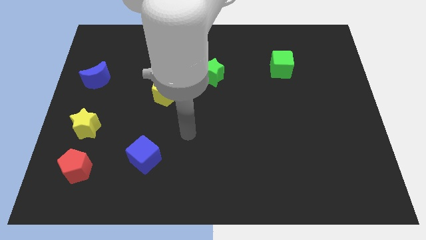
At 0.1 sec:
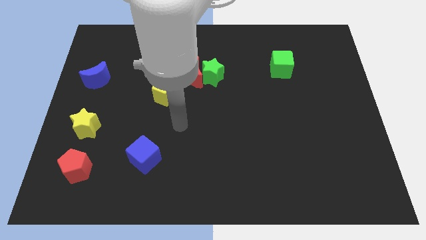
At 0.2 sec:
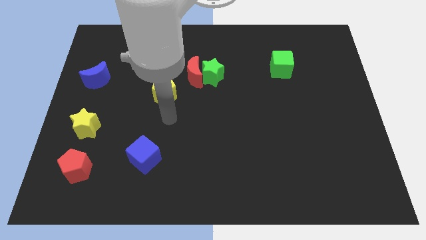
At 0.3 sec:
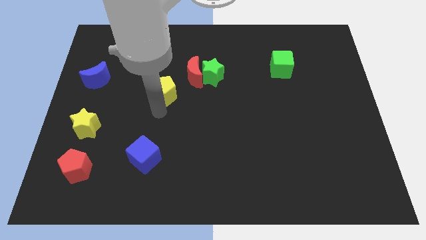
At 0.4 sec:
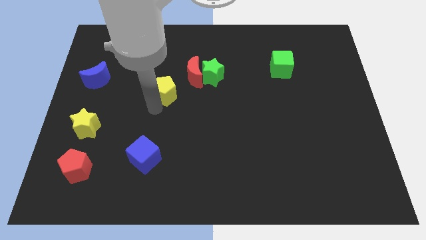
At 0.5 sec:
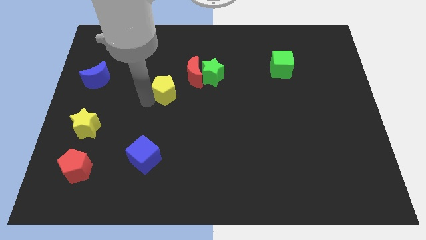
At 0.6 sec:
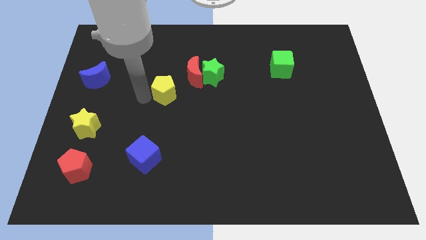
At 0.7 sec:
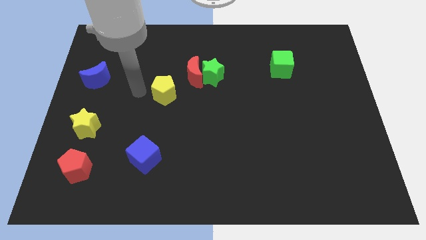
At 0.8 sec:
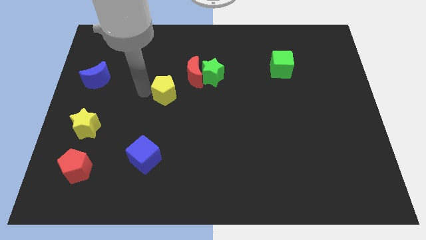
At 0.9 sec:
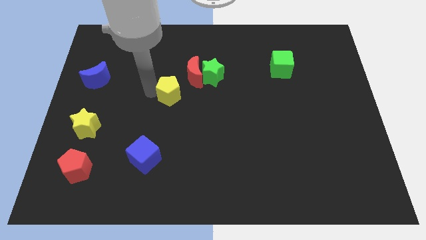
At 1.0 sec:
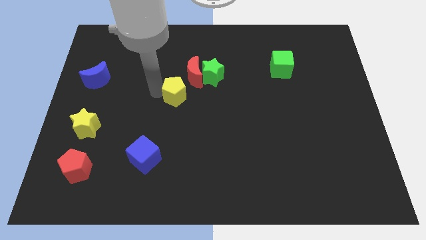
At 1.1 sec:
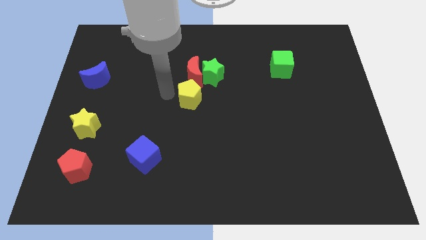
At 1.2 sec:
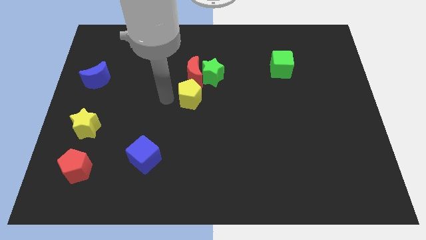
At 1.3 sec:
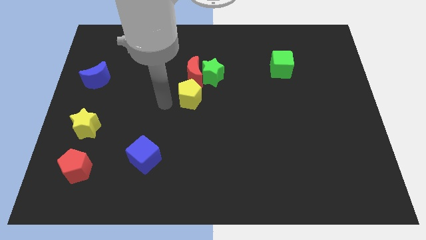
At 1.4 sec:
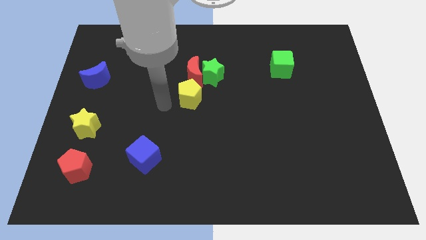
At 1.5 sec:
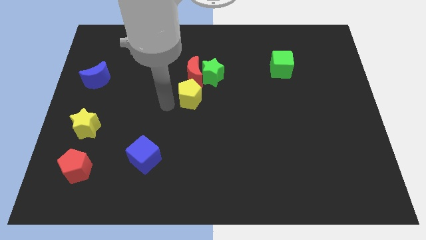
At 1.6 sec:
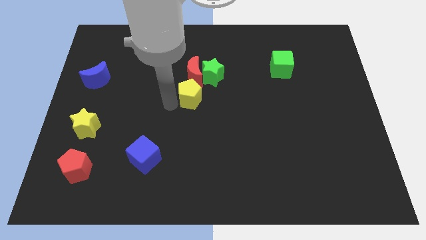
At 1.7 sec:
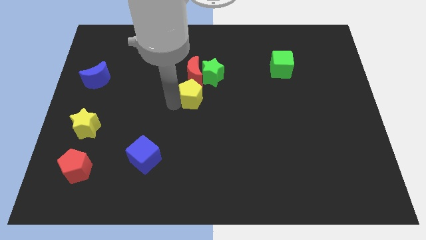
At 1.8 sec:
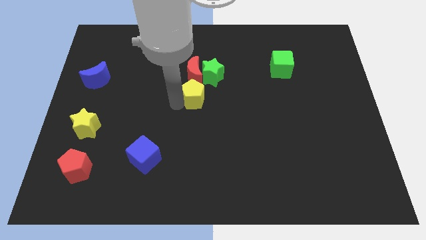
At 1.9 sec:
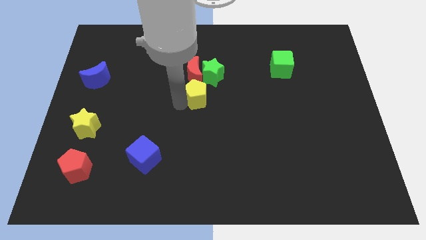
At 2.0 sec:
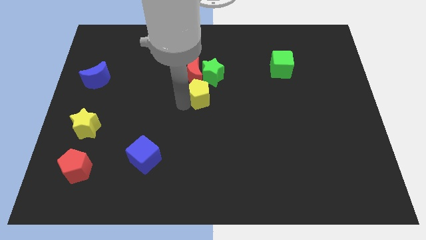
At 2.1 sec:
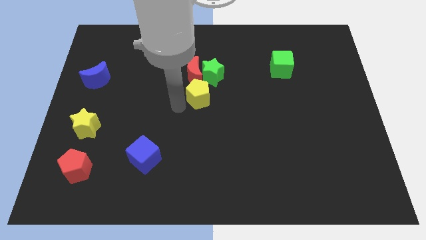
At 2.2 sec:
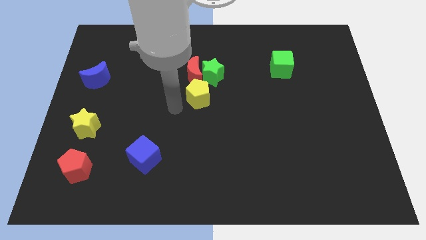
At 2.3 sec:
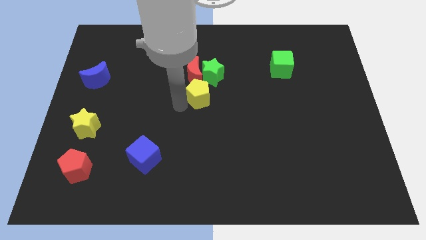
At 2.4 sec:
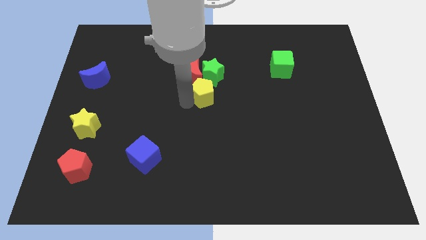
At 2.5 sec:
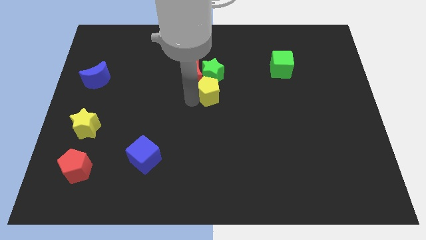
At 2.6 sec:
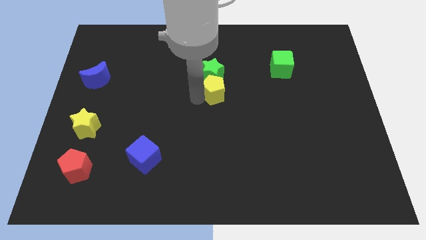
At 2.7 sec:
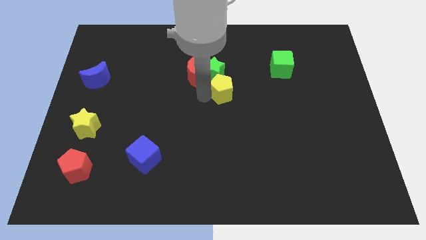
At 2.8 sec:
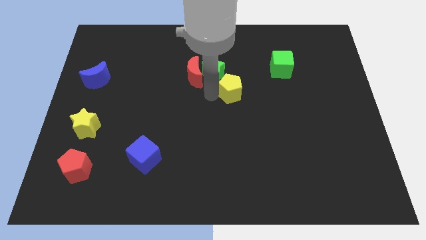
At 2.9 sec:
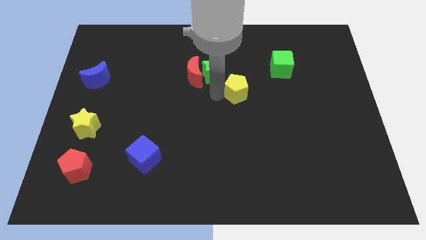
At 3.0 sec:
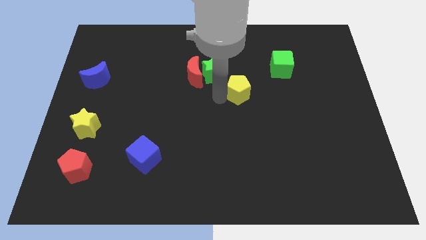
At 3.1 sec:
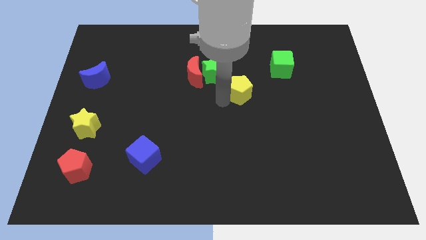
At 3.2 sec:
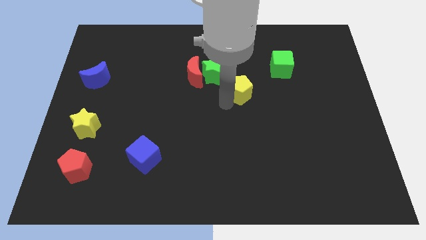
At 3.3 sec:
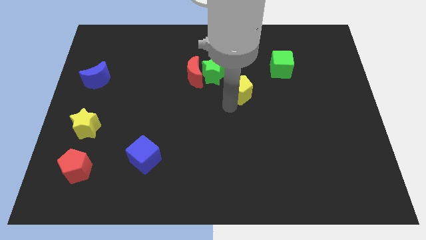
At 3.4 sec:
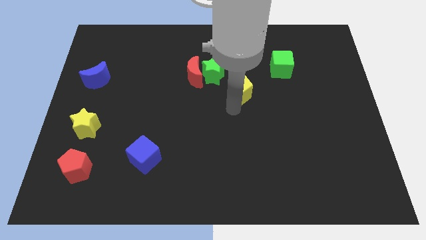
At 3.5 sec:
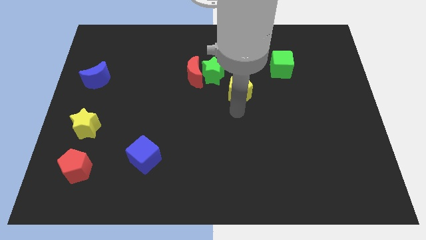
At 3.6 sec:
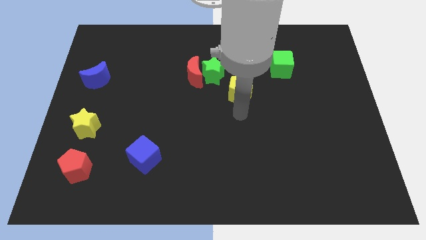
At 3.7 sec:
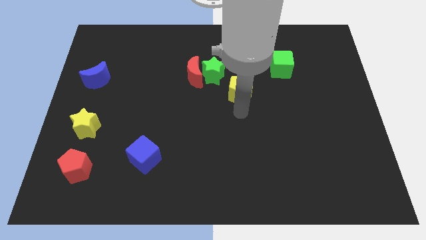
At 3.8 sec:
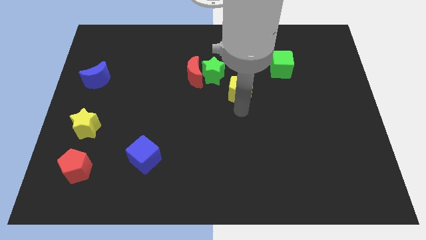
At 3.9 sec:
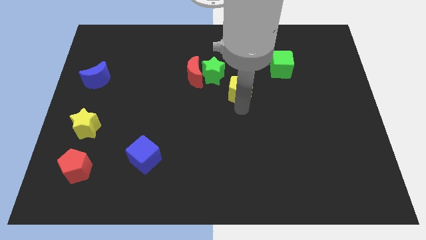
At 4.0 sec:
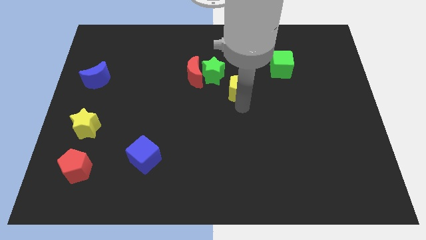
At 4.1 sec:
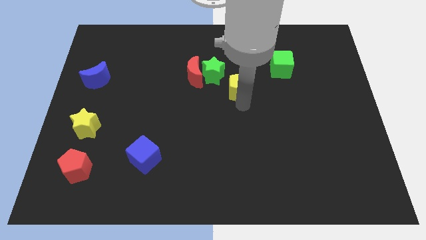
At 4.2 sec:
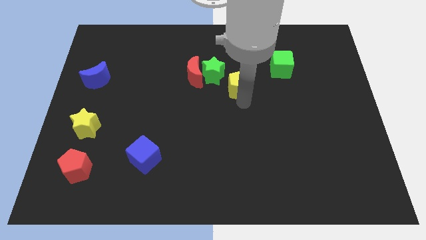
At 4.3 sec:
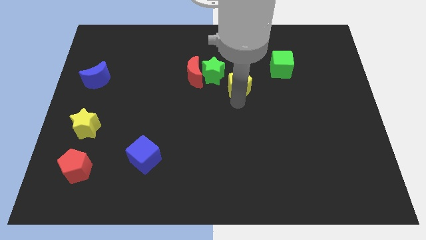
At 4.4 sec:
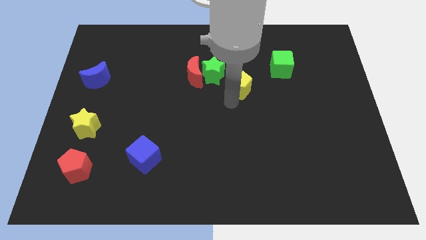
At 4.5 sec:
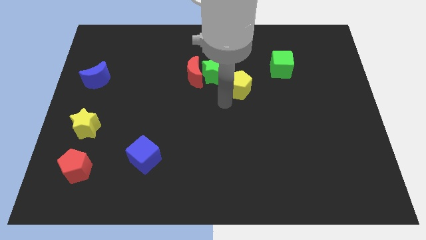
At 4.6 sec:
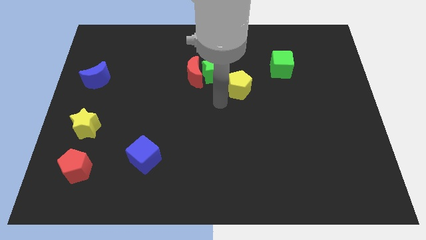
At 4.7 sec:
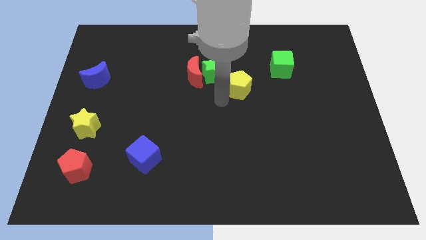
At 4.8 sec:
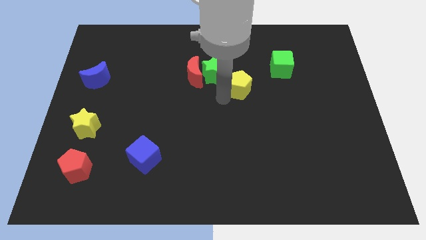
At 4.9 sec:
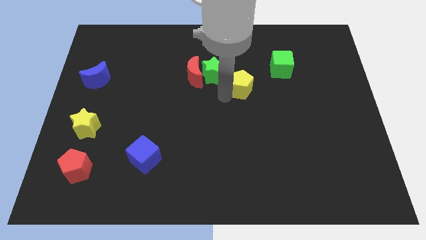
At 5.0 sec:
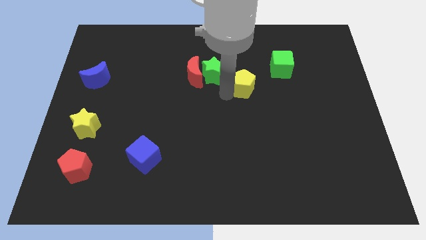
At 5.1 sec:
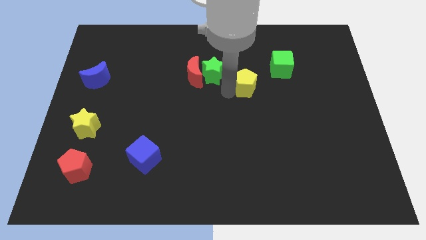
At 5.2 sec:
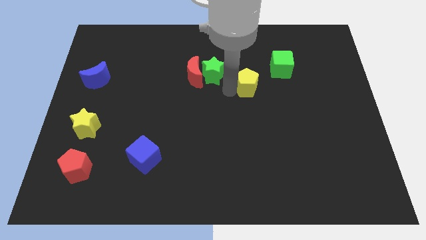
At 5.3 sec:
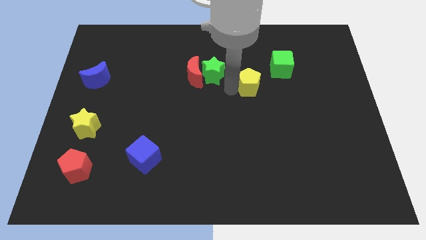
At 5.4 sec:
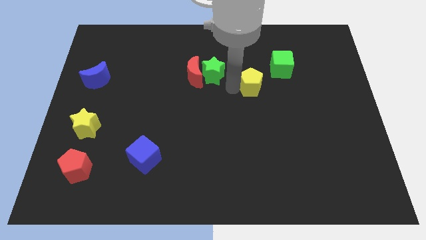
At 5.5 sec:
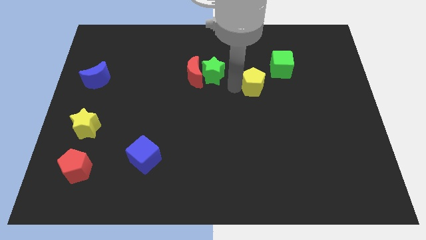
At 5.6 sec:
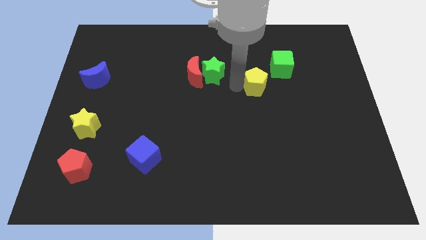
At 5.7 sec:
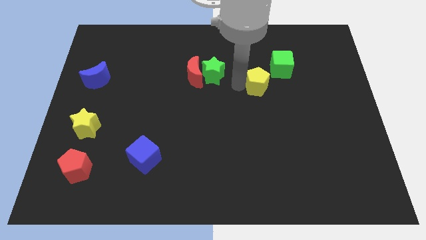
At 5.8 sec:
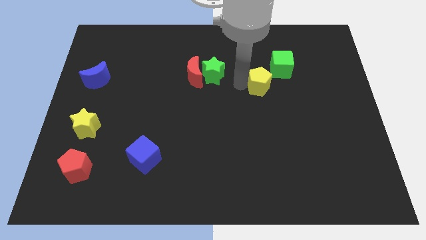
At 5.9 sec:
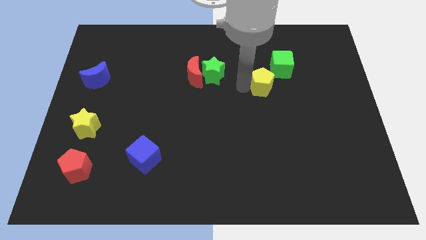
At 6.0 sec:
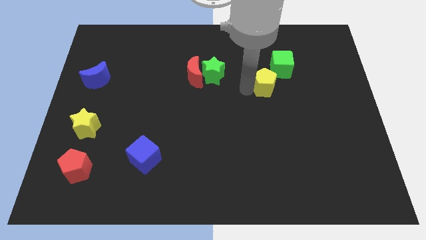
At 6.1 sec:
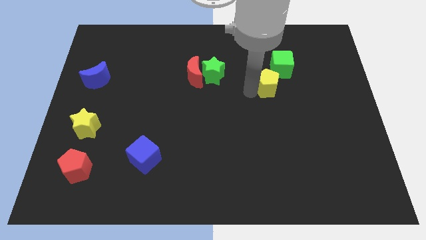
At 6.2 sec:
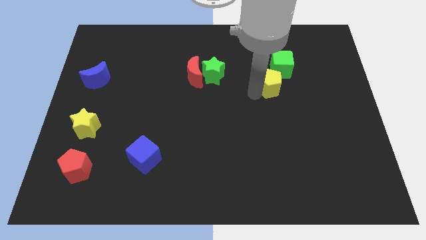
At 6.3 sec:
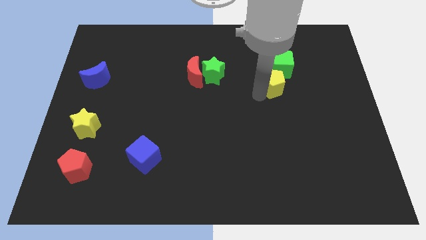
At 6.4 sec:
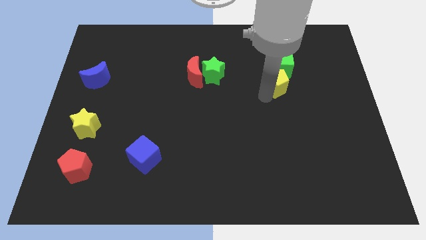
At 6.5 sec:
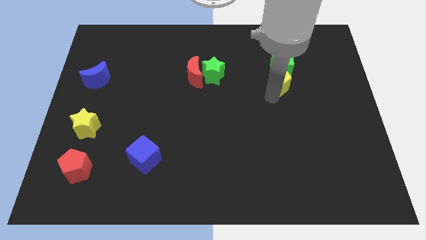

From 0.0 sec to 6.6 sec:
slide the yellow pentagon next to the green cube

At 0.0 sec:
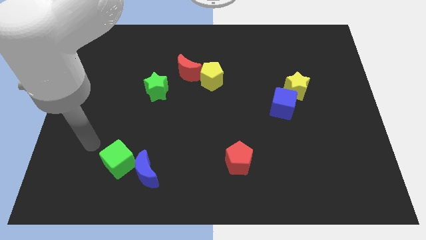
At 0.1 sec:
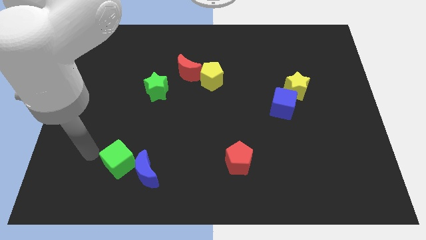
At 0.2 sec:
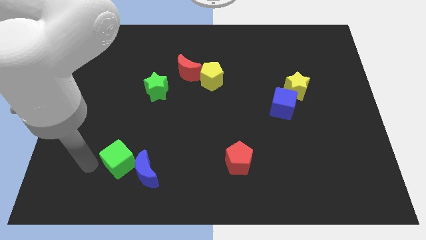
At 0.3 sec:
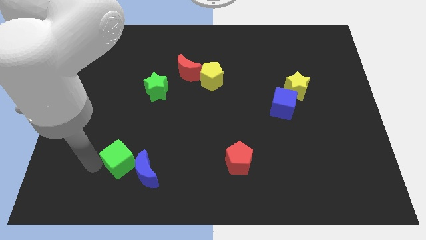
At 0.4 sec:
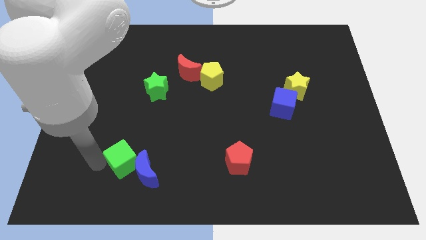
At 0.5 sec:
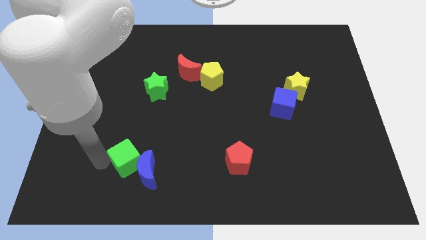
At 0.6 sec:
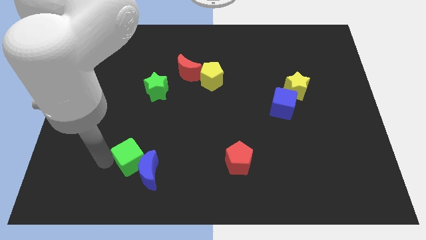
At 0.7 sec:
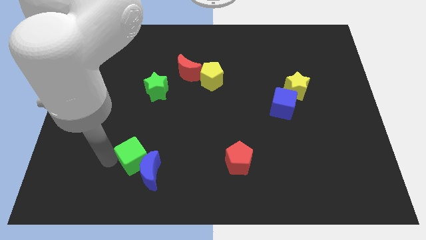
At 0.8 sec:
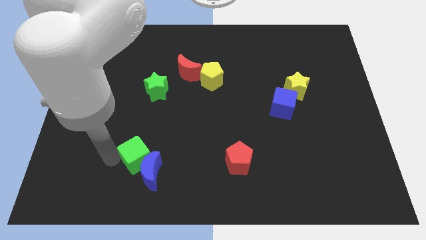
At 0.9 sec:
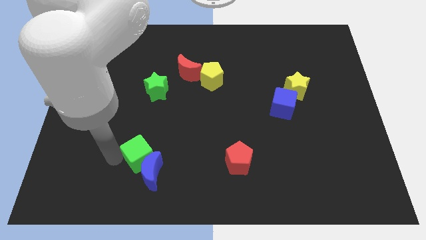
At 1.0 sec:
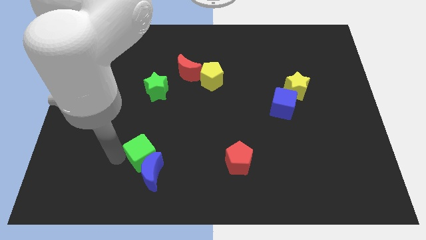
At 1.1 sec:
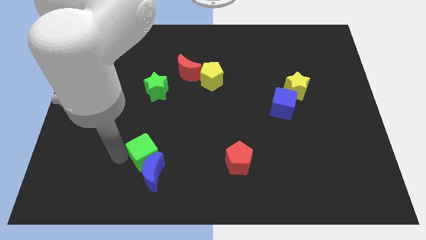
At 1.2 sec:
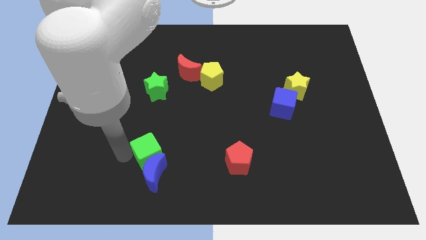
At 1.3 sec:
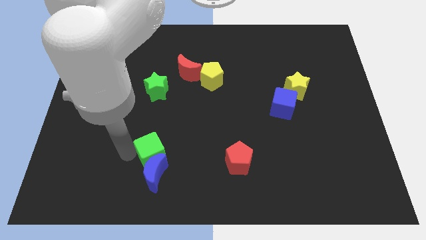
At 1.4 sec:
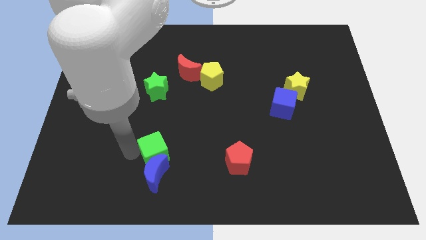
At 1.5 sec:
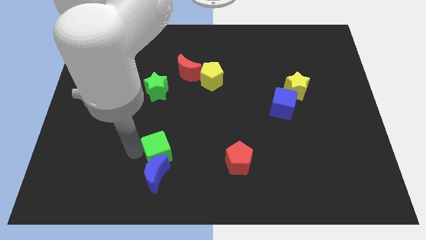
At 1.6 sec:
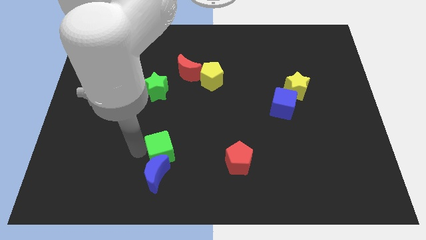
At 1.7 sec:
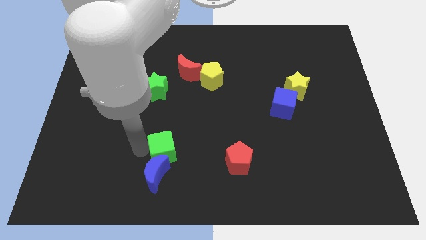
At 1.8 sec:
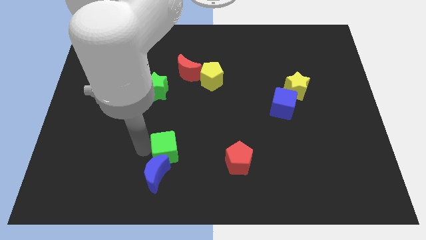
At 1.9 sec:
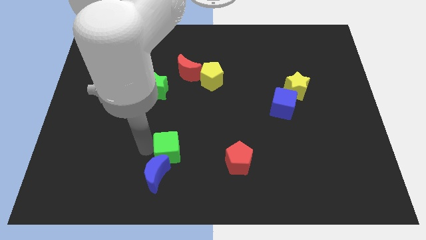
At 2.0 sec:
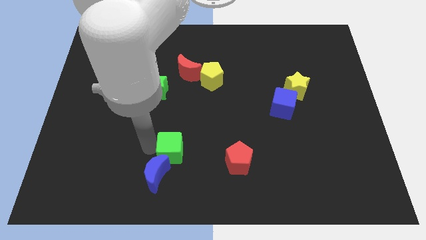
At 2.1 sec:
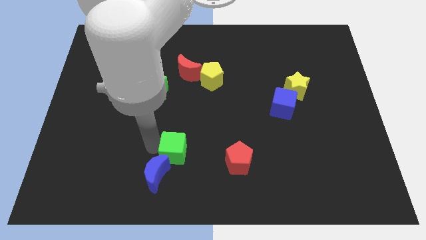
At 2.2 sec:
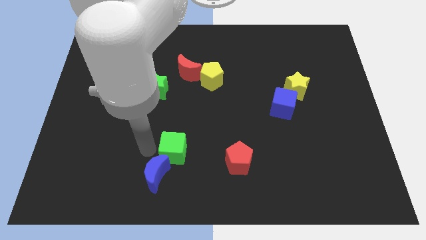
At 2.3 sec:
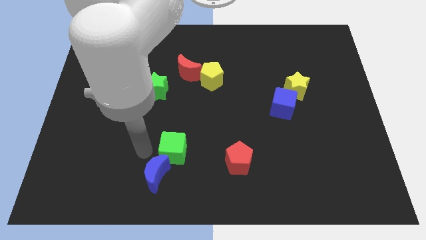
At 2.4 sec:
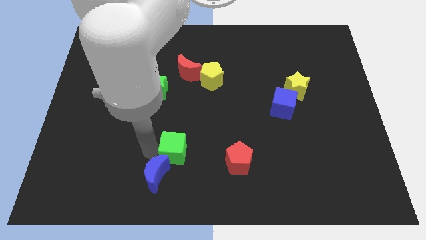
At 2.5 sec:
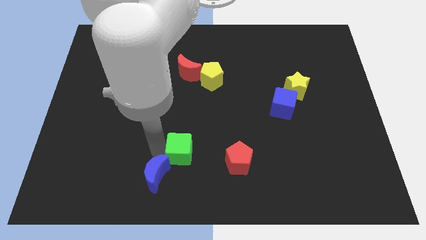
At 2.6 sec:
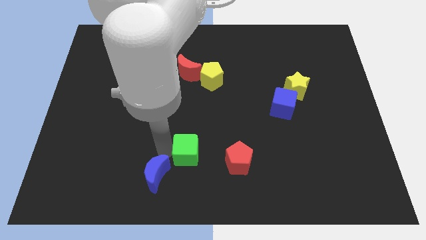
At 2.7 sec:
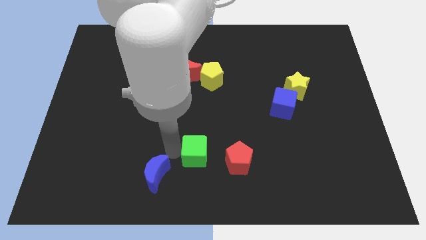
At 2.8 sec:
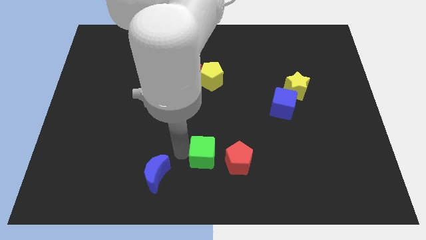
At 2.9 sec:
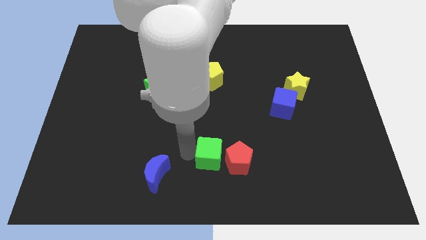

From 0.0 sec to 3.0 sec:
put the green cube to the red pentagon
